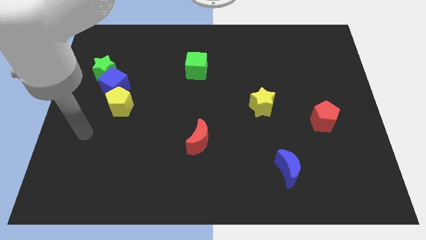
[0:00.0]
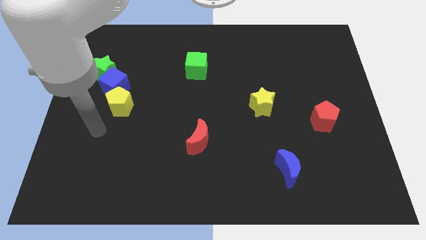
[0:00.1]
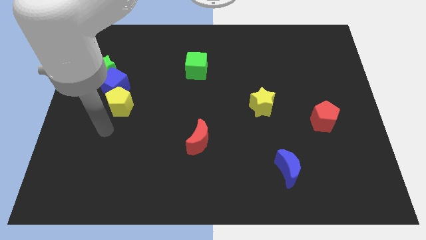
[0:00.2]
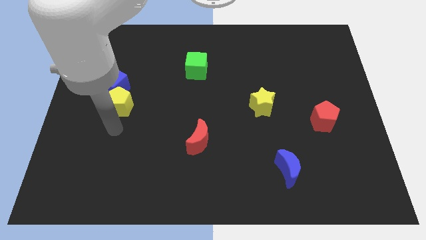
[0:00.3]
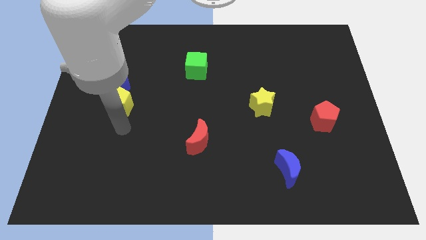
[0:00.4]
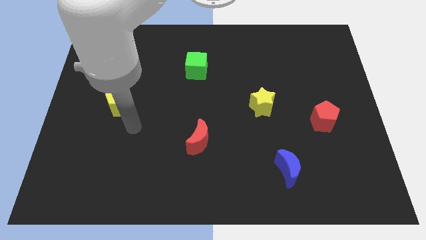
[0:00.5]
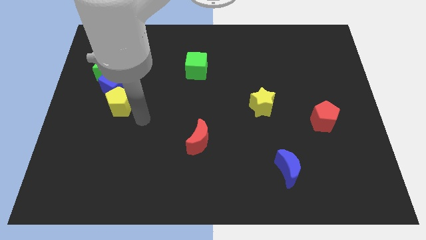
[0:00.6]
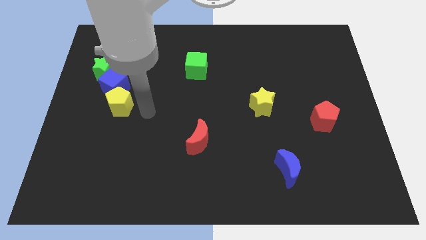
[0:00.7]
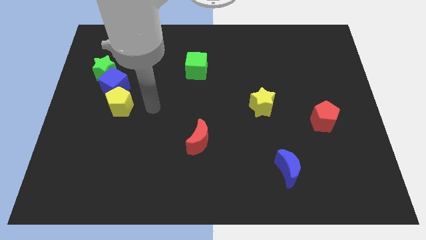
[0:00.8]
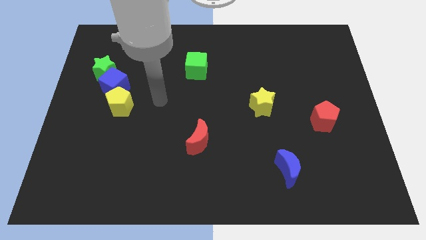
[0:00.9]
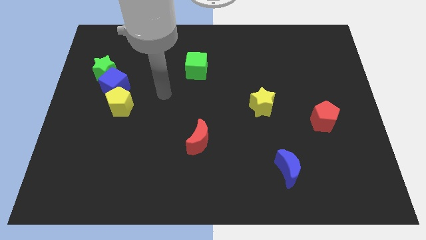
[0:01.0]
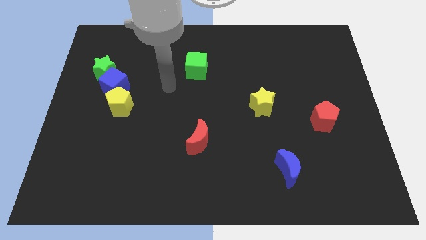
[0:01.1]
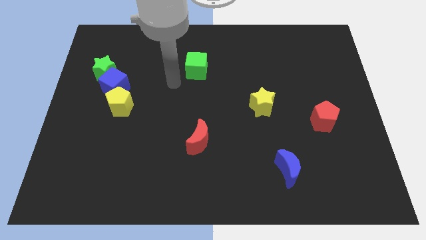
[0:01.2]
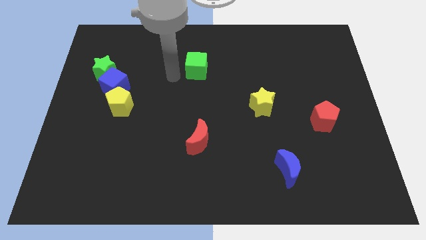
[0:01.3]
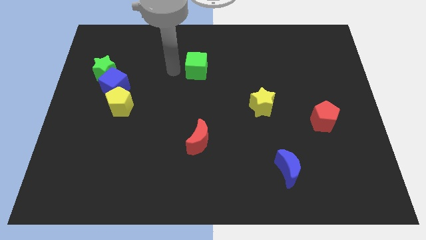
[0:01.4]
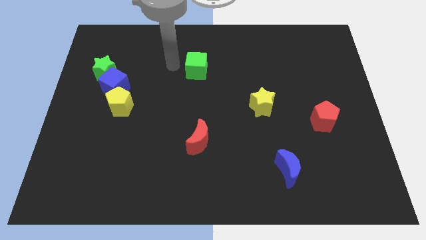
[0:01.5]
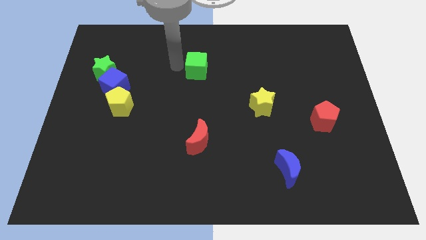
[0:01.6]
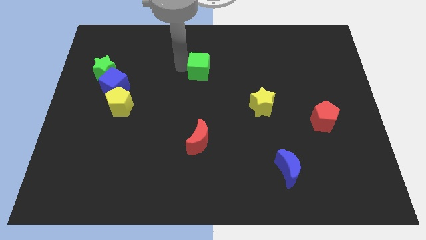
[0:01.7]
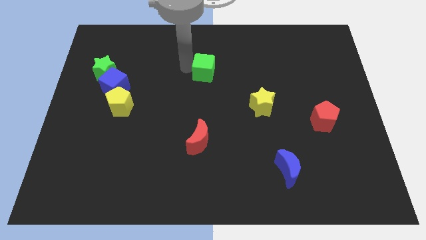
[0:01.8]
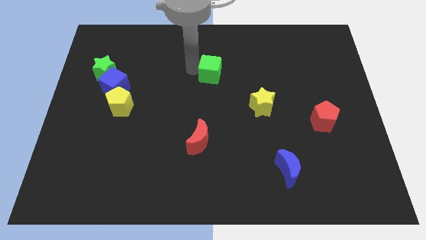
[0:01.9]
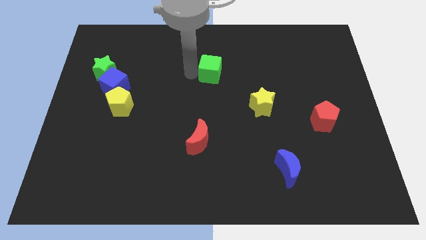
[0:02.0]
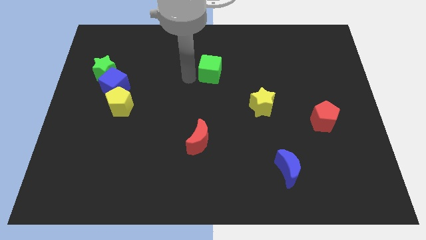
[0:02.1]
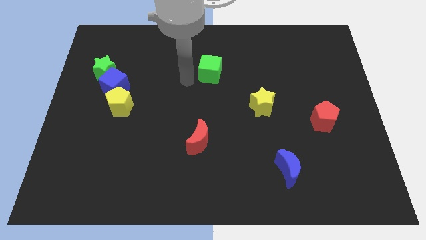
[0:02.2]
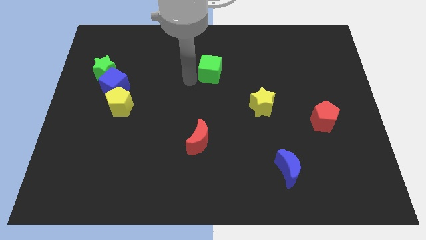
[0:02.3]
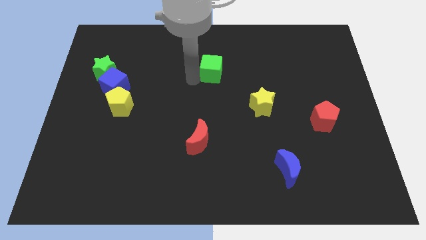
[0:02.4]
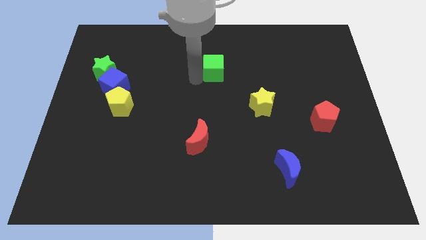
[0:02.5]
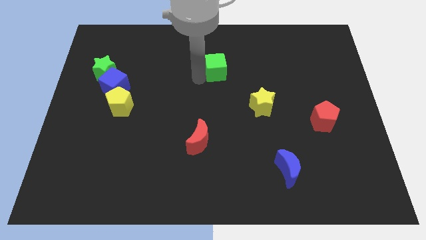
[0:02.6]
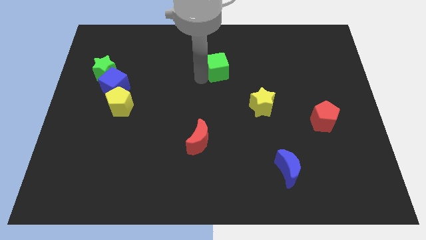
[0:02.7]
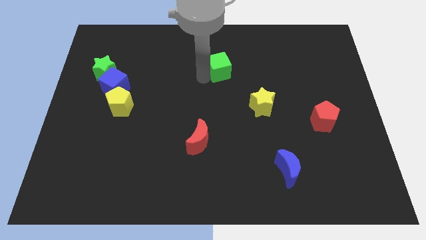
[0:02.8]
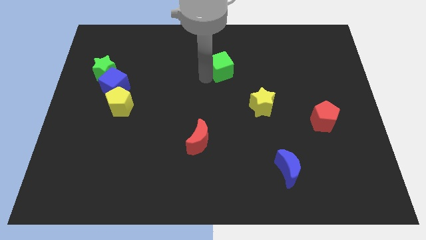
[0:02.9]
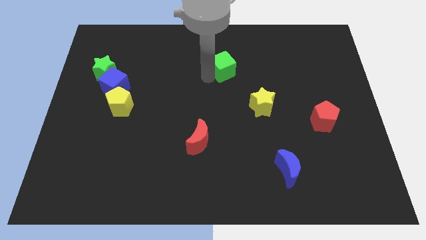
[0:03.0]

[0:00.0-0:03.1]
push the green cube to the right slightly

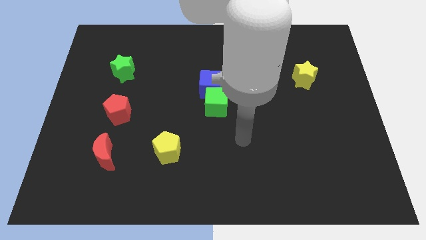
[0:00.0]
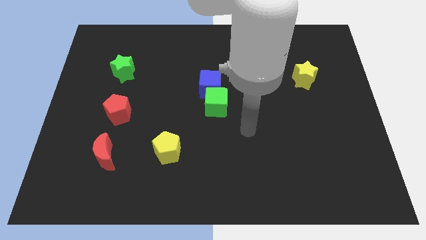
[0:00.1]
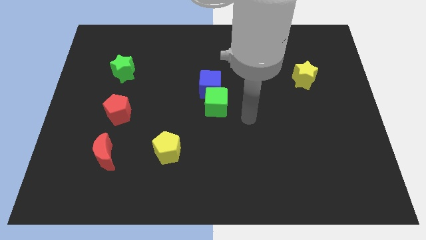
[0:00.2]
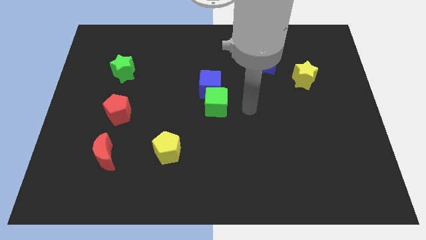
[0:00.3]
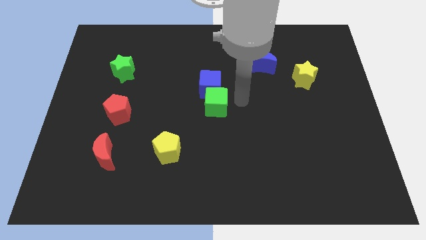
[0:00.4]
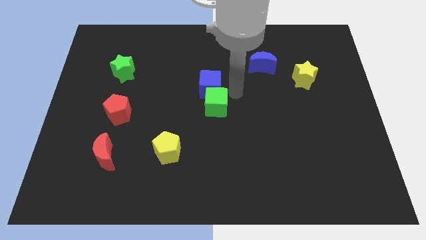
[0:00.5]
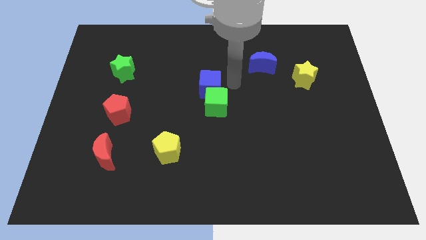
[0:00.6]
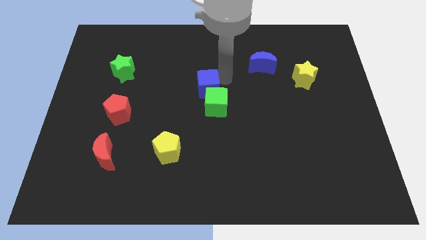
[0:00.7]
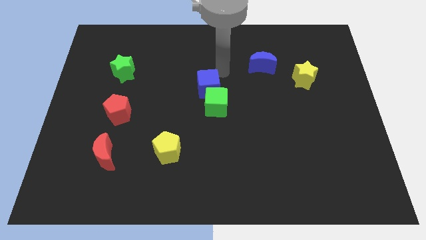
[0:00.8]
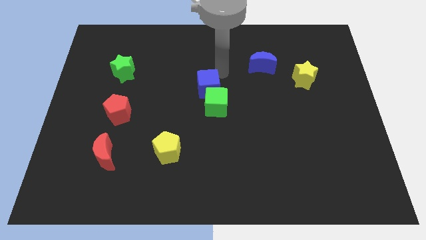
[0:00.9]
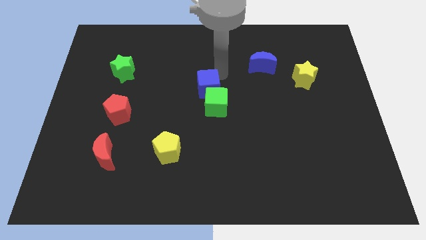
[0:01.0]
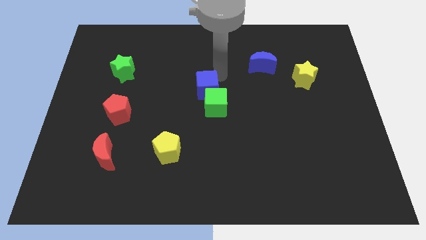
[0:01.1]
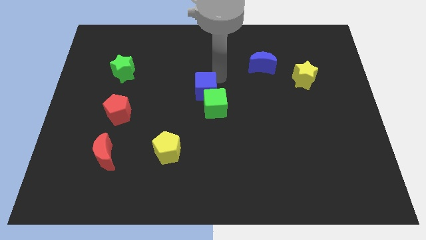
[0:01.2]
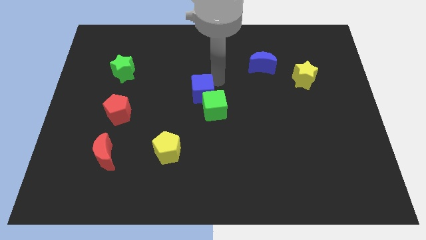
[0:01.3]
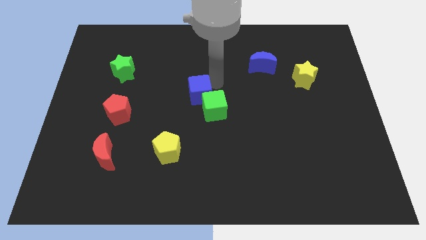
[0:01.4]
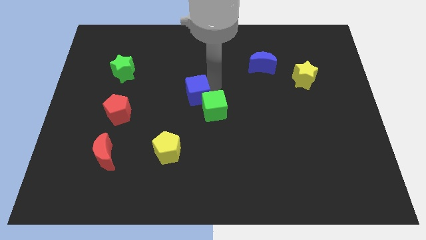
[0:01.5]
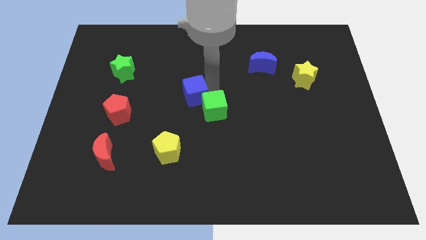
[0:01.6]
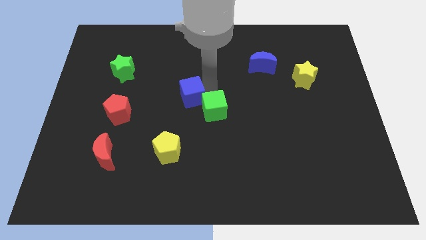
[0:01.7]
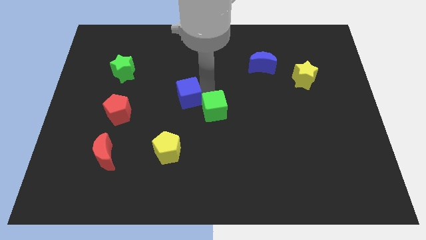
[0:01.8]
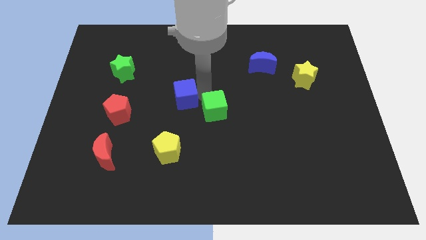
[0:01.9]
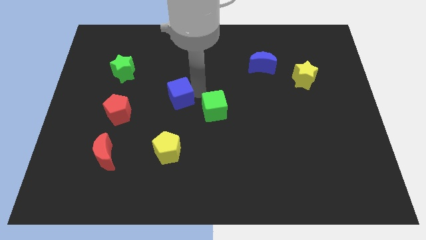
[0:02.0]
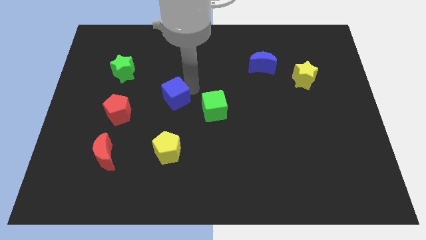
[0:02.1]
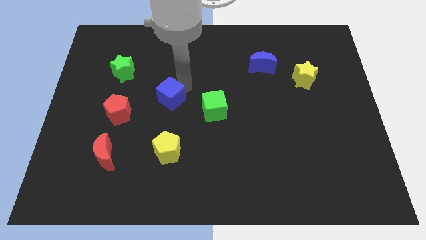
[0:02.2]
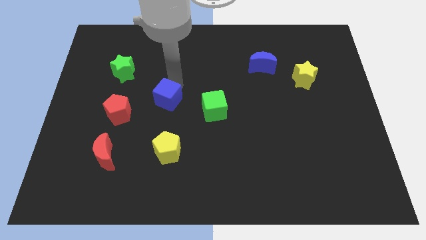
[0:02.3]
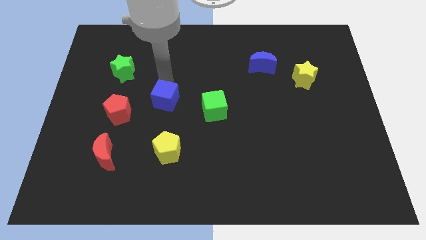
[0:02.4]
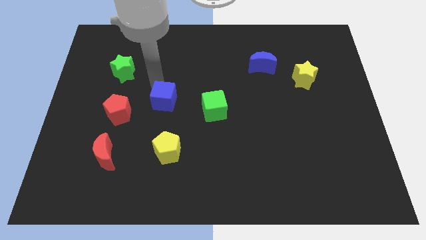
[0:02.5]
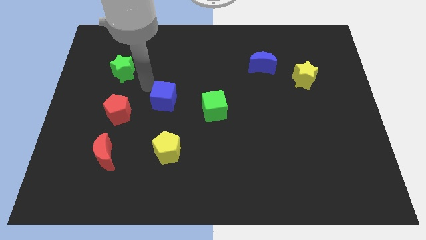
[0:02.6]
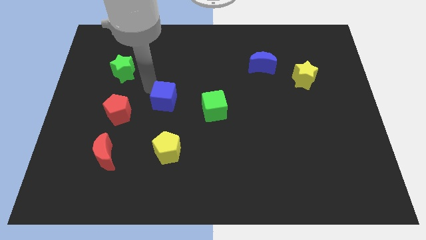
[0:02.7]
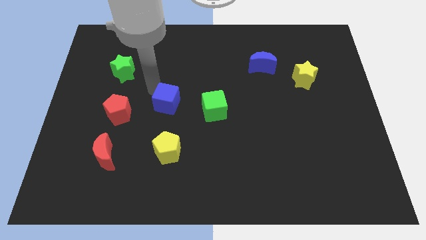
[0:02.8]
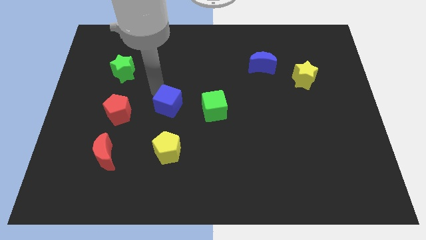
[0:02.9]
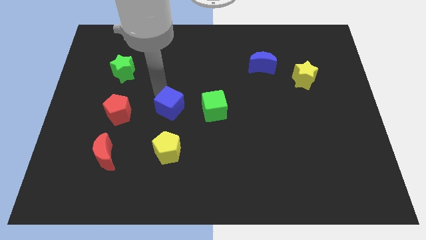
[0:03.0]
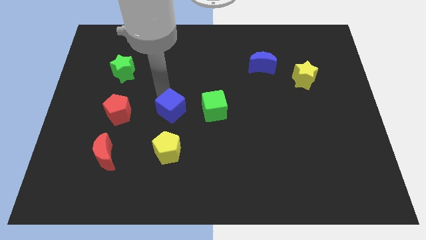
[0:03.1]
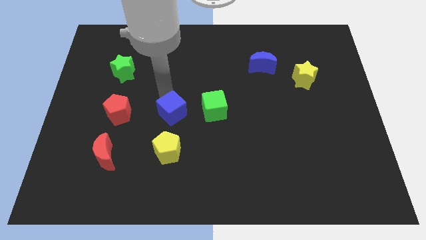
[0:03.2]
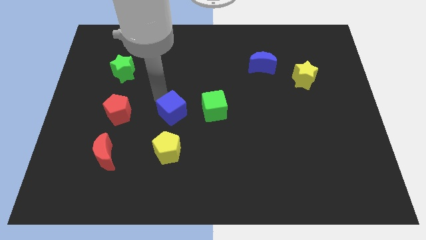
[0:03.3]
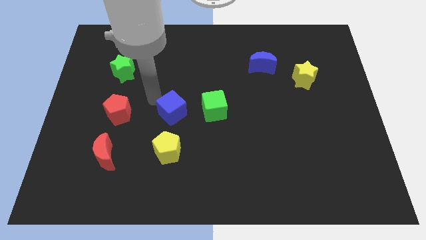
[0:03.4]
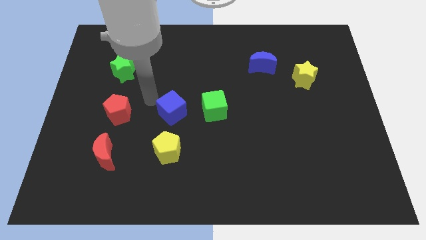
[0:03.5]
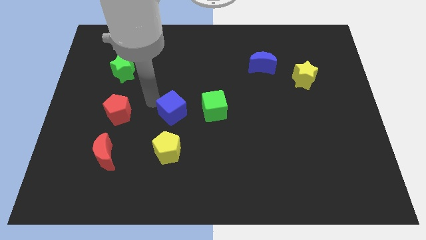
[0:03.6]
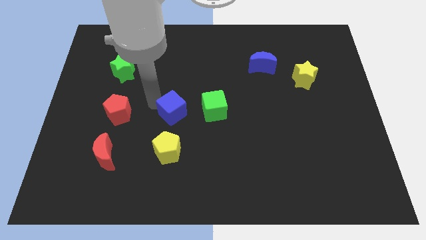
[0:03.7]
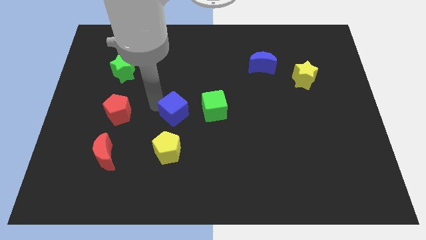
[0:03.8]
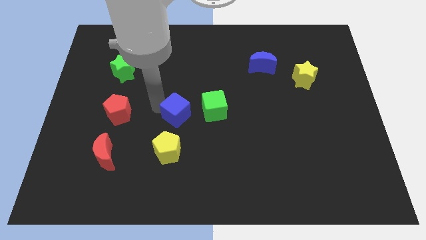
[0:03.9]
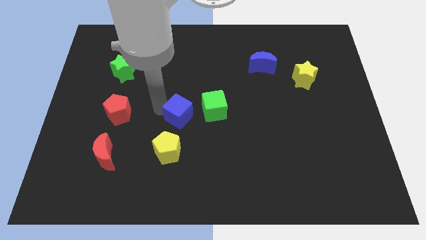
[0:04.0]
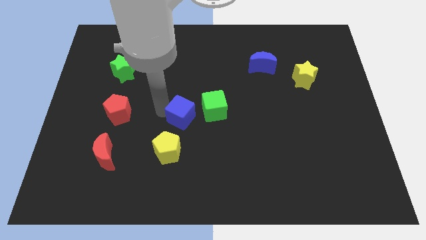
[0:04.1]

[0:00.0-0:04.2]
slightly move the blue cube downwards

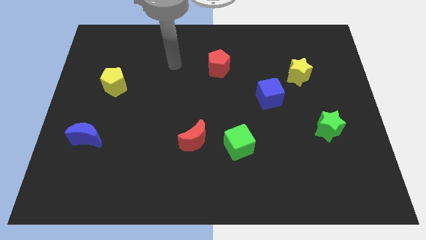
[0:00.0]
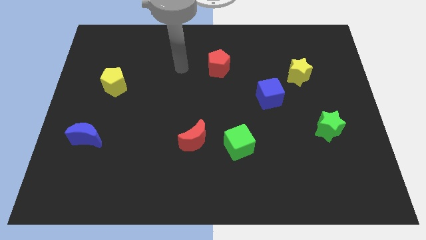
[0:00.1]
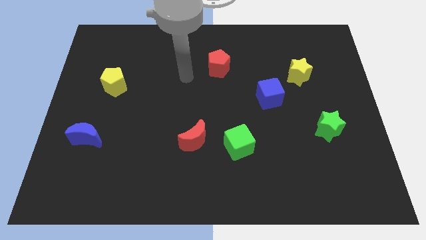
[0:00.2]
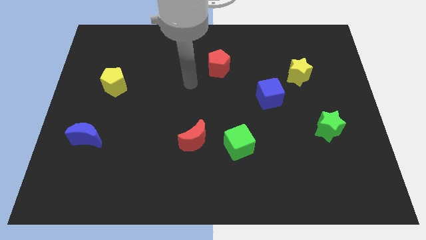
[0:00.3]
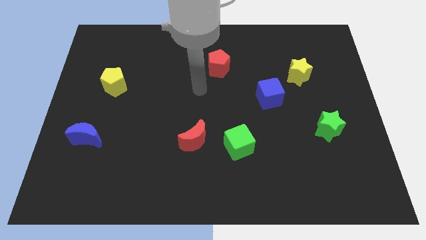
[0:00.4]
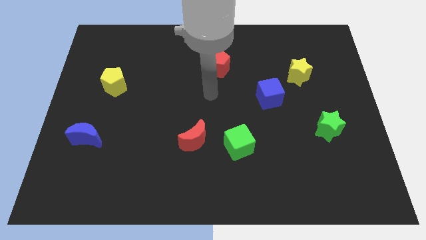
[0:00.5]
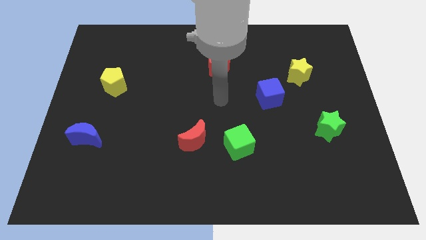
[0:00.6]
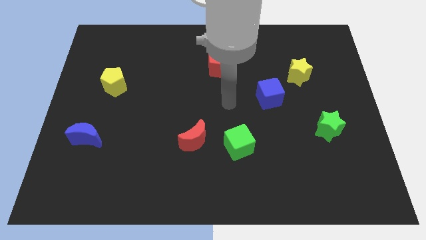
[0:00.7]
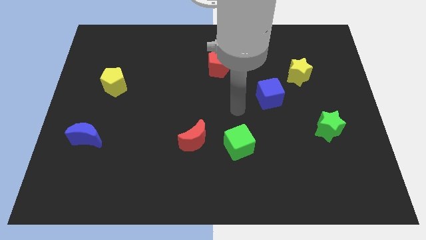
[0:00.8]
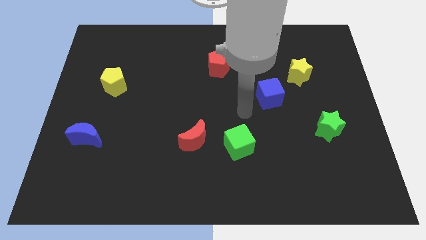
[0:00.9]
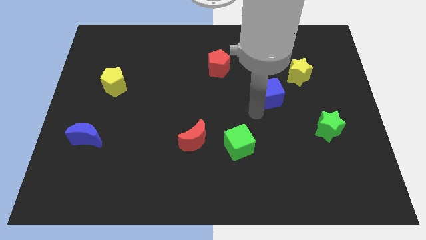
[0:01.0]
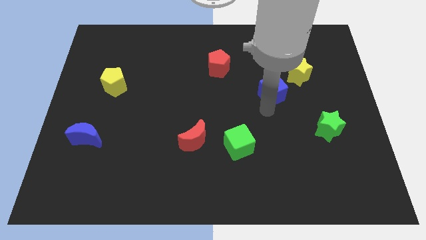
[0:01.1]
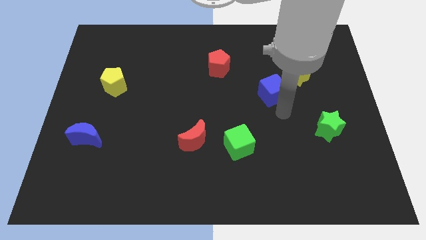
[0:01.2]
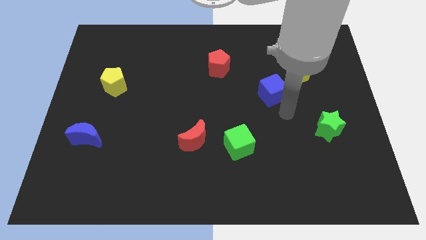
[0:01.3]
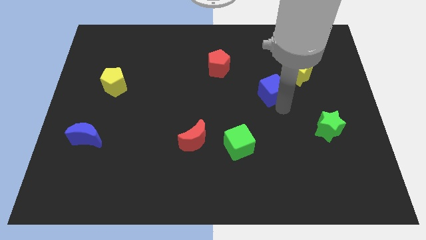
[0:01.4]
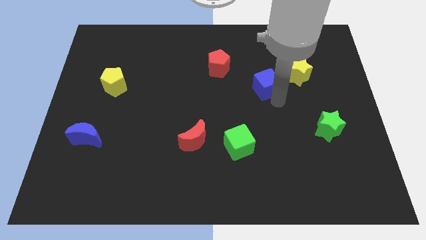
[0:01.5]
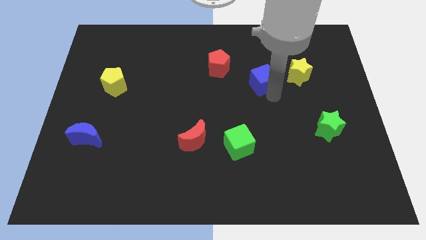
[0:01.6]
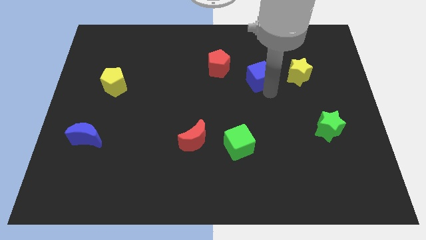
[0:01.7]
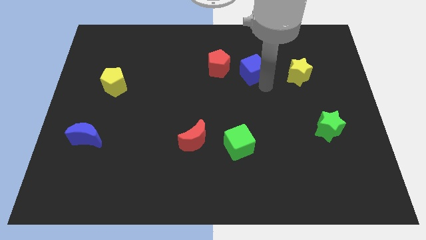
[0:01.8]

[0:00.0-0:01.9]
slightly slide the blue cube diagonally upwards and to the left
